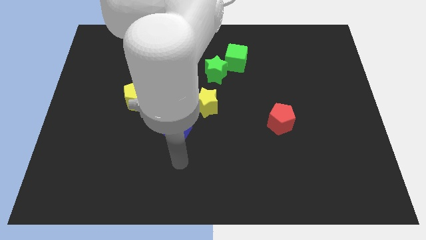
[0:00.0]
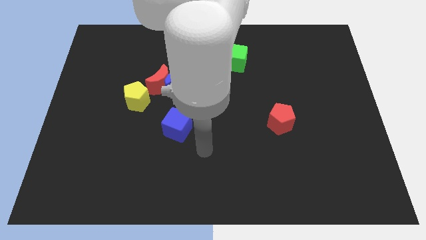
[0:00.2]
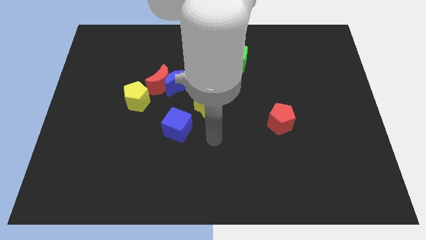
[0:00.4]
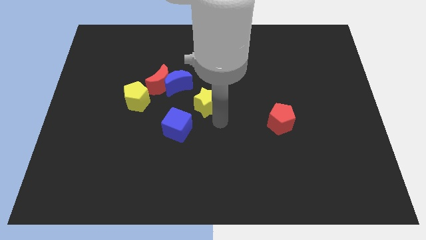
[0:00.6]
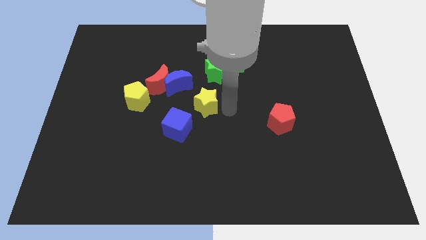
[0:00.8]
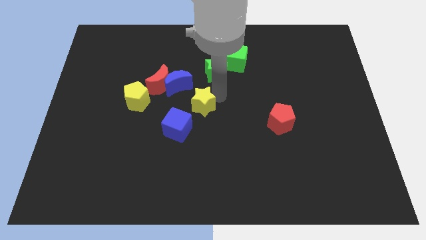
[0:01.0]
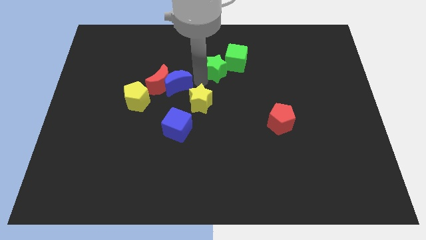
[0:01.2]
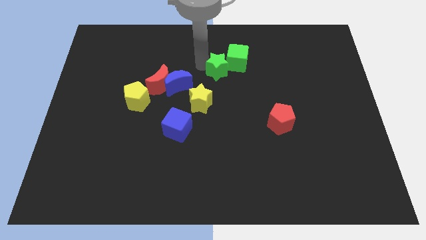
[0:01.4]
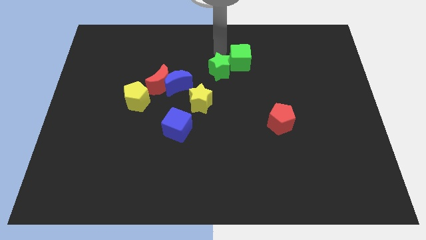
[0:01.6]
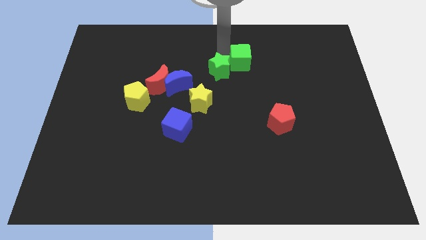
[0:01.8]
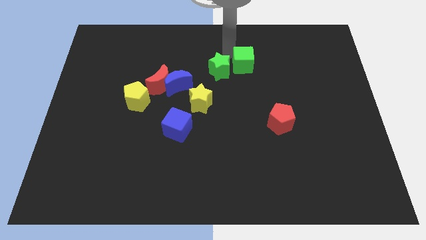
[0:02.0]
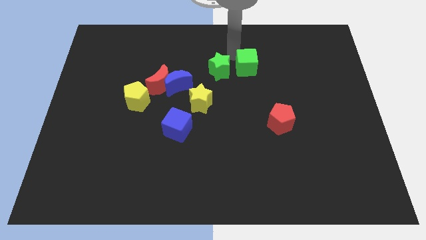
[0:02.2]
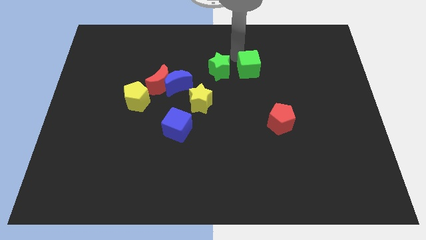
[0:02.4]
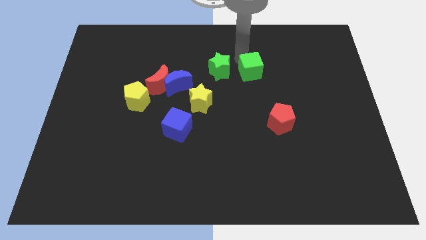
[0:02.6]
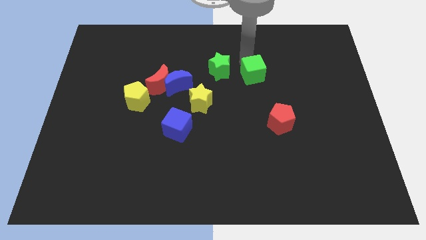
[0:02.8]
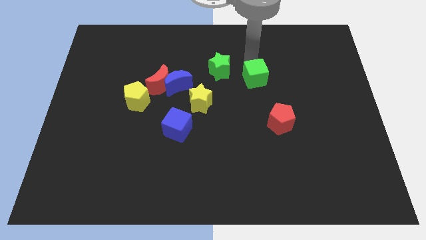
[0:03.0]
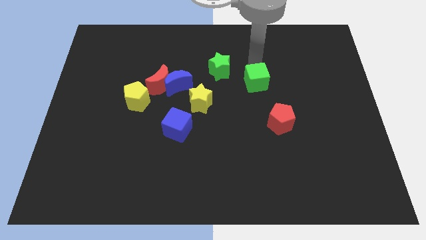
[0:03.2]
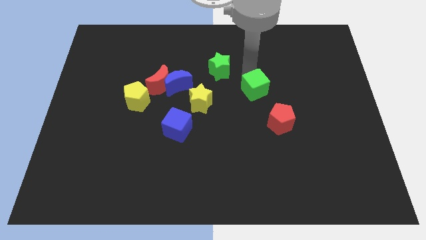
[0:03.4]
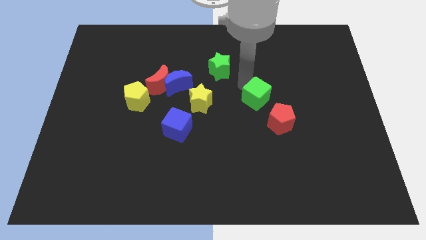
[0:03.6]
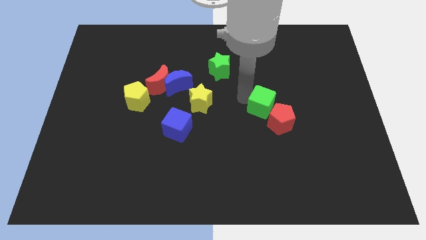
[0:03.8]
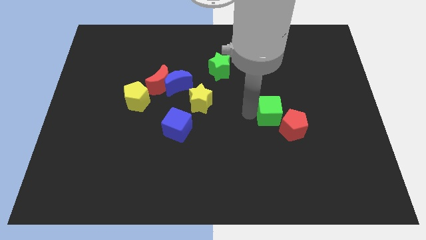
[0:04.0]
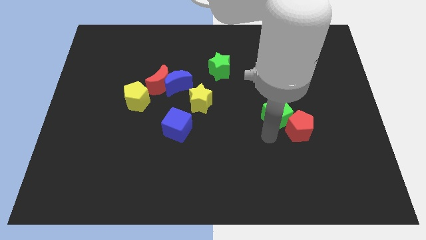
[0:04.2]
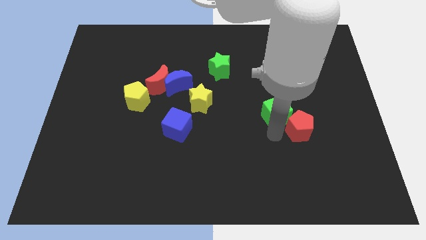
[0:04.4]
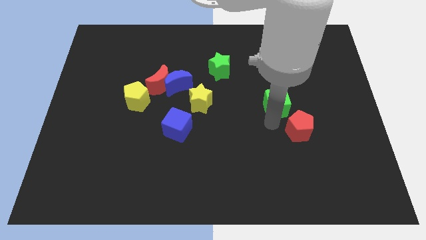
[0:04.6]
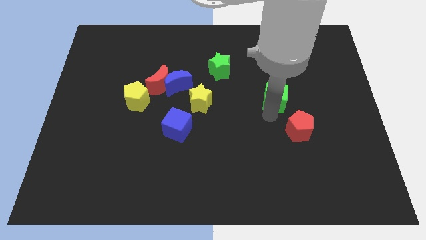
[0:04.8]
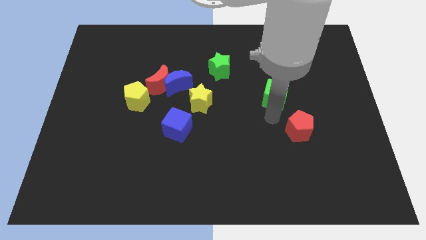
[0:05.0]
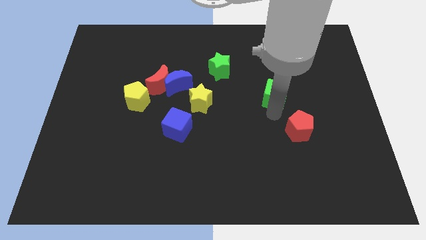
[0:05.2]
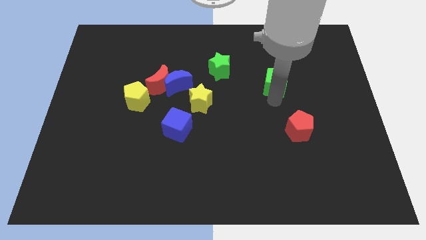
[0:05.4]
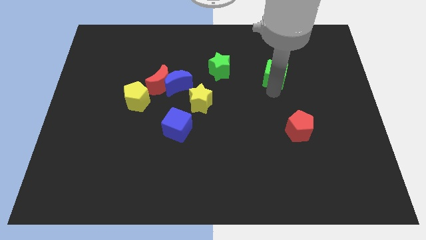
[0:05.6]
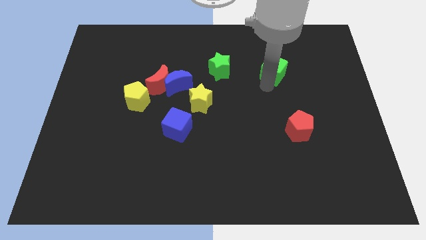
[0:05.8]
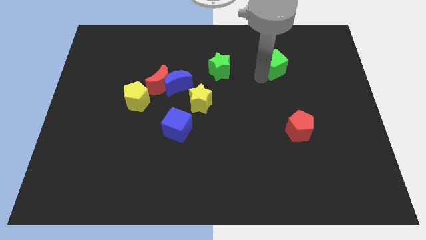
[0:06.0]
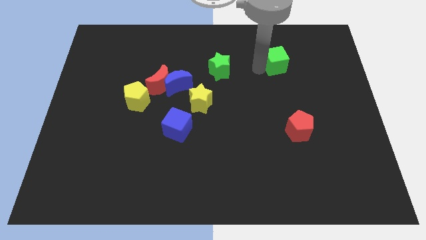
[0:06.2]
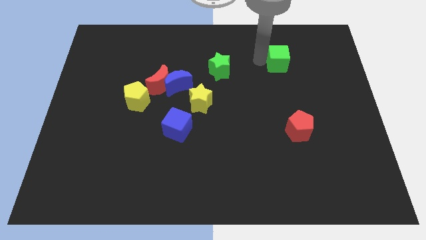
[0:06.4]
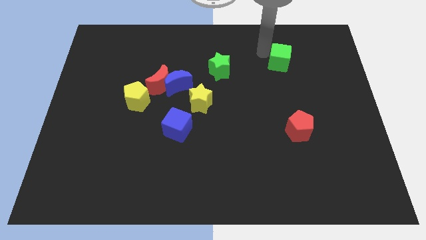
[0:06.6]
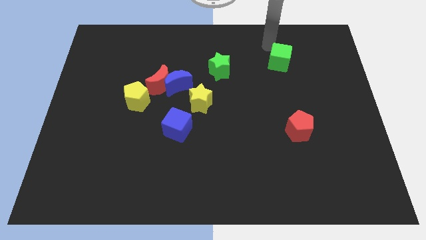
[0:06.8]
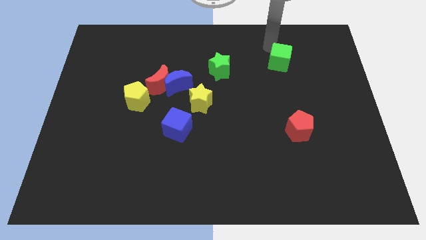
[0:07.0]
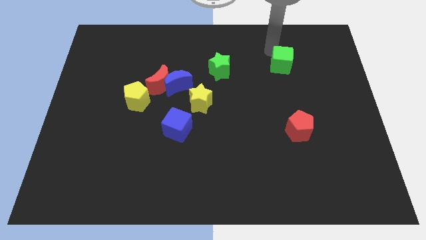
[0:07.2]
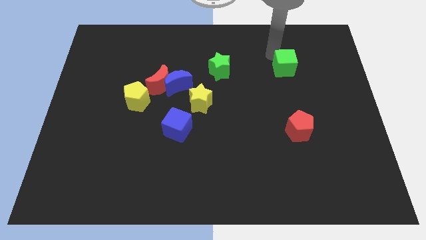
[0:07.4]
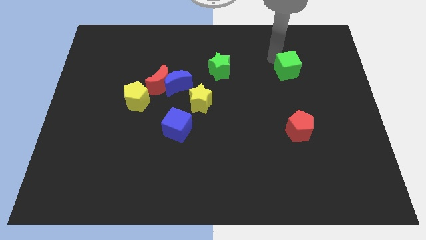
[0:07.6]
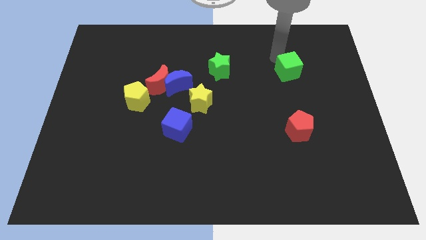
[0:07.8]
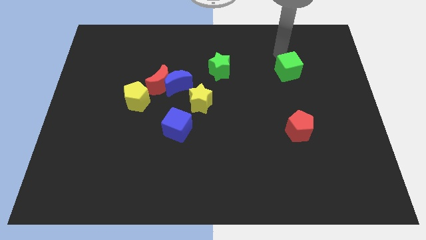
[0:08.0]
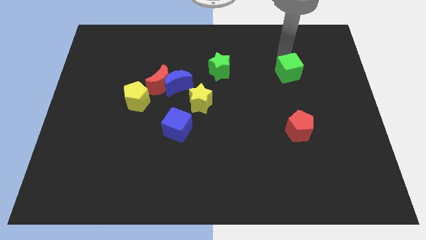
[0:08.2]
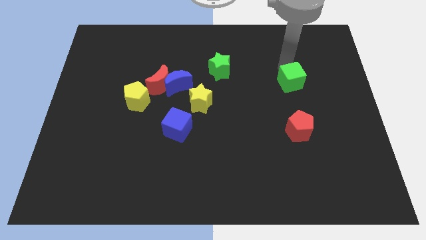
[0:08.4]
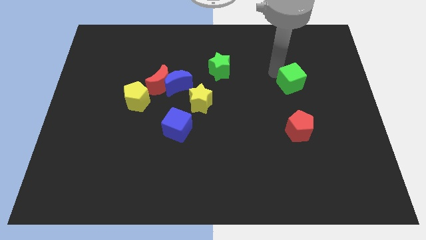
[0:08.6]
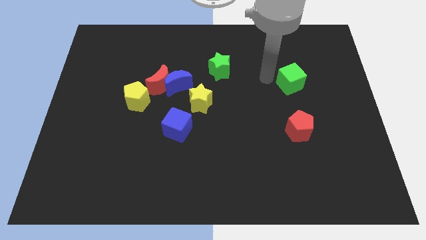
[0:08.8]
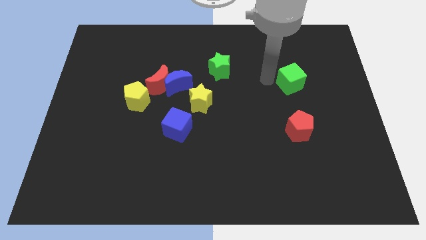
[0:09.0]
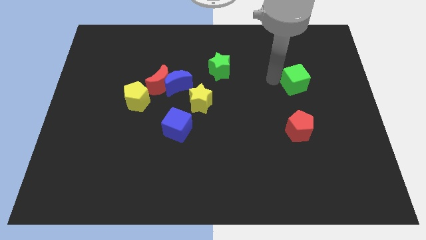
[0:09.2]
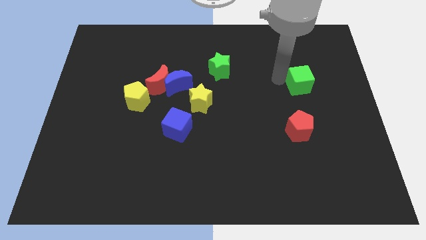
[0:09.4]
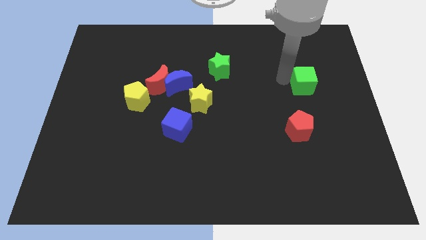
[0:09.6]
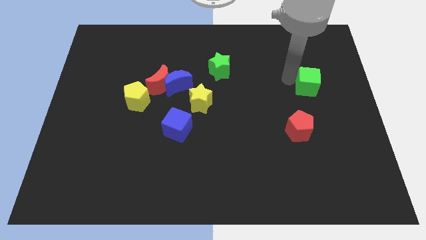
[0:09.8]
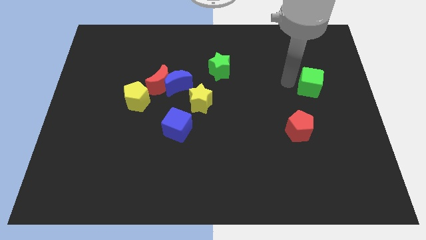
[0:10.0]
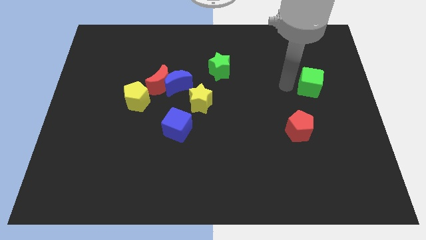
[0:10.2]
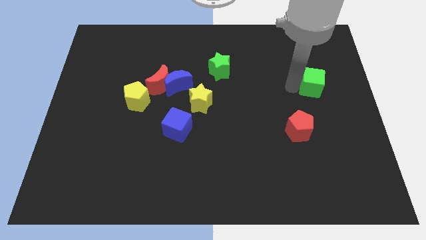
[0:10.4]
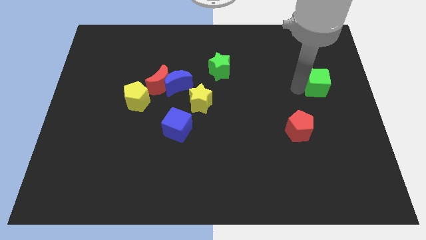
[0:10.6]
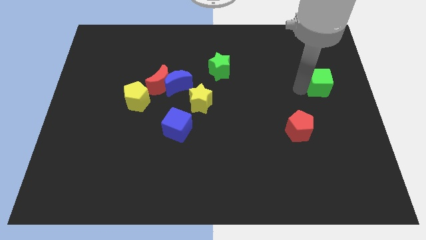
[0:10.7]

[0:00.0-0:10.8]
push the green cube to the right side of the board
